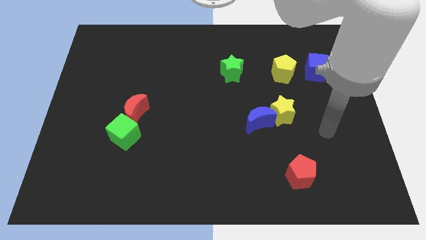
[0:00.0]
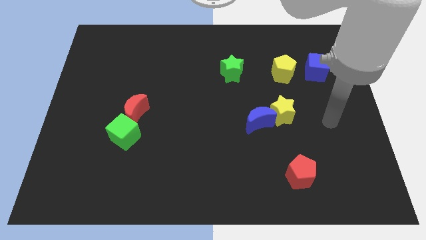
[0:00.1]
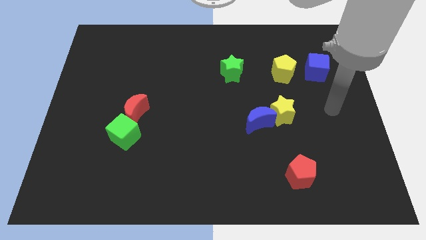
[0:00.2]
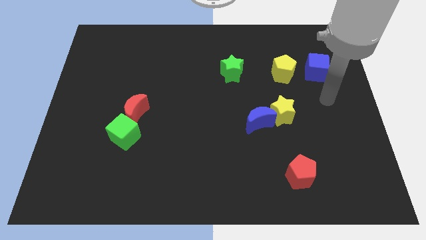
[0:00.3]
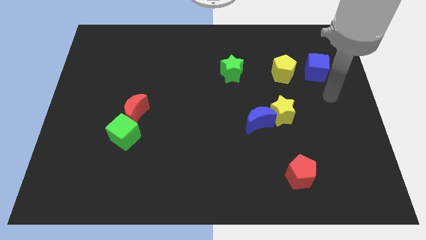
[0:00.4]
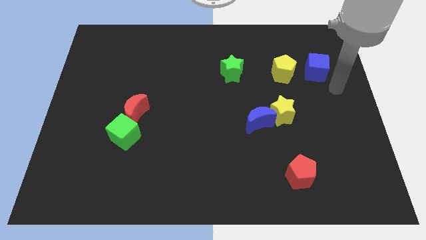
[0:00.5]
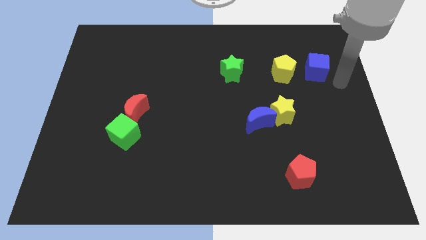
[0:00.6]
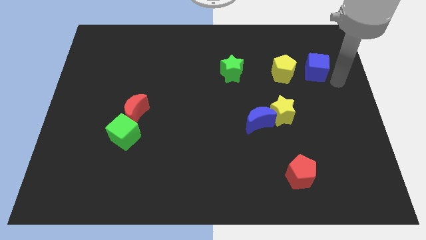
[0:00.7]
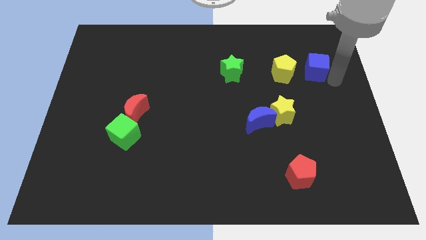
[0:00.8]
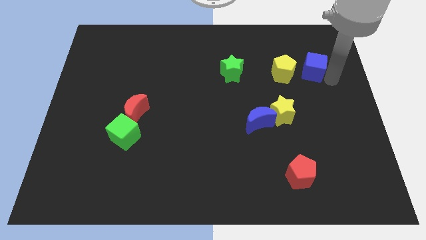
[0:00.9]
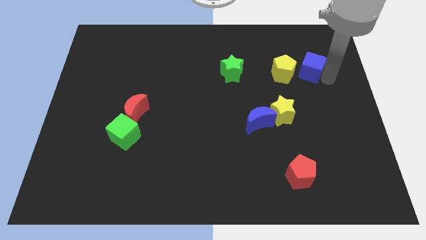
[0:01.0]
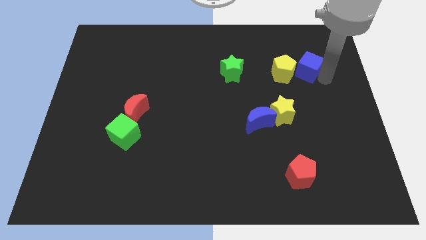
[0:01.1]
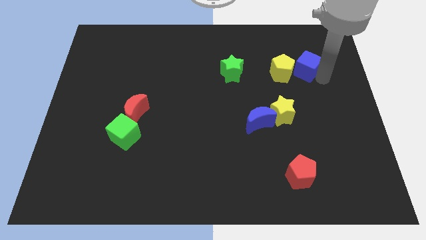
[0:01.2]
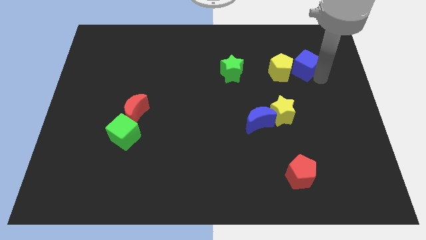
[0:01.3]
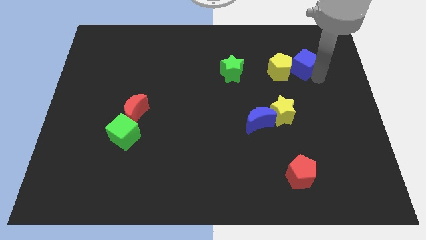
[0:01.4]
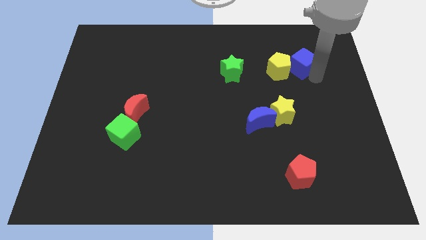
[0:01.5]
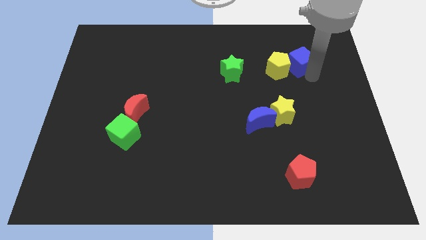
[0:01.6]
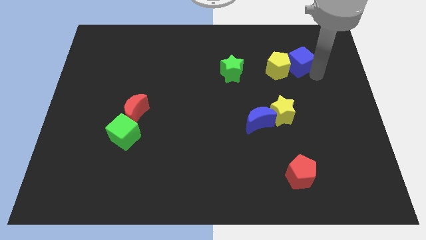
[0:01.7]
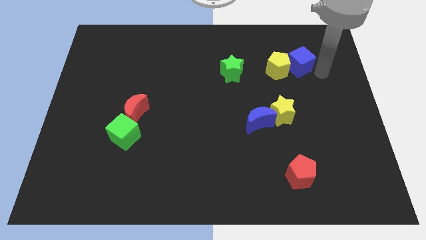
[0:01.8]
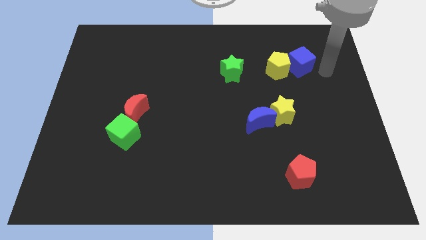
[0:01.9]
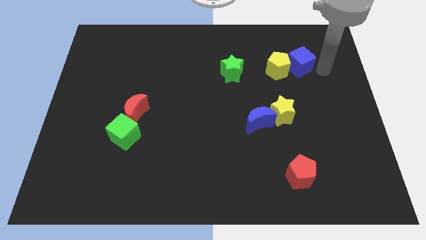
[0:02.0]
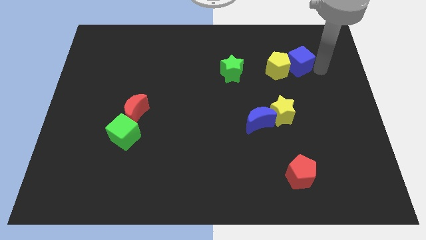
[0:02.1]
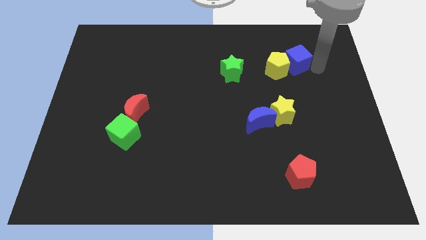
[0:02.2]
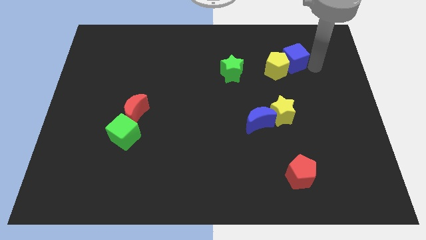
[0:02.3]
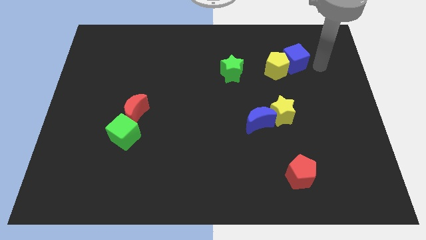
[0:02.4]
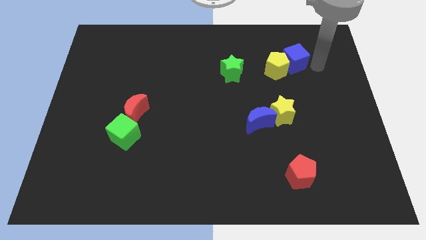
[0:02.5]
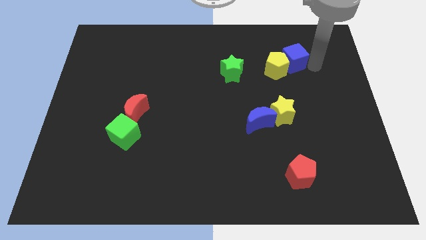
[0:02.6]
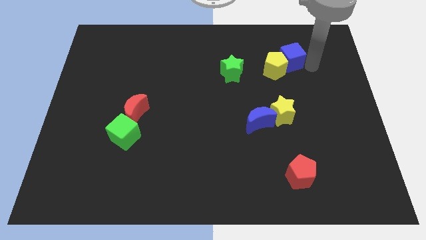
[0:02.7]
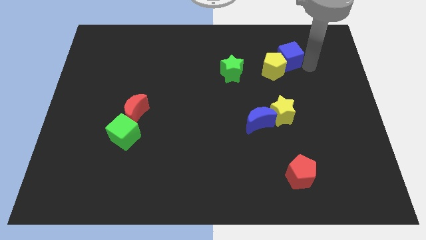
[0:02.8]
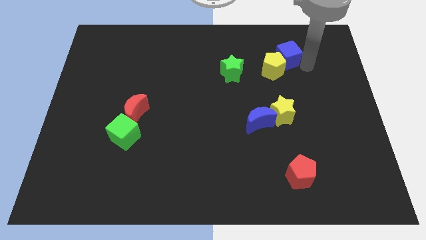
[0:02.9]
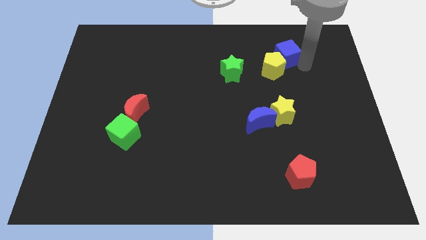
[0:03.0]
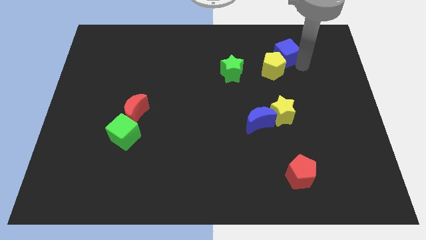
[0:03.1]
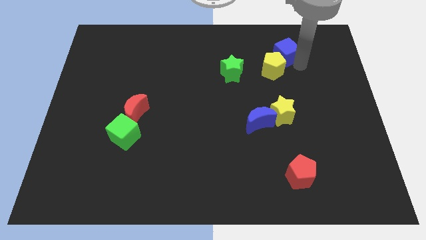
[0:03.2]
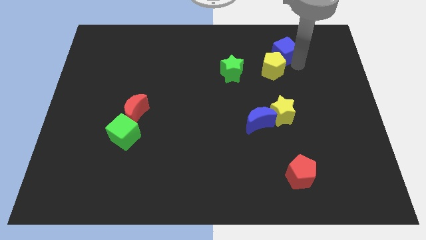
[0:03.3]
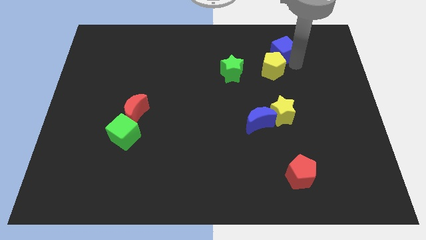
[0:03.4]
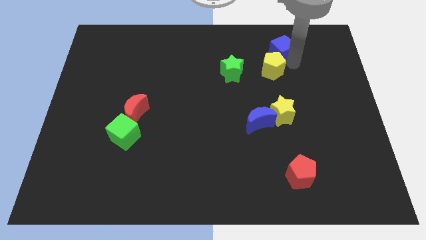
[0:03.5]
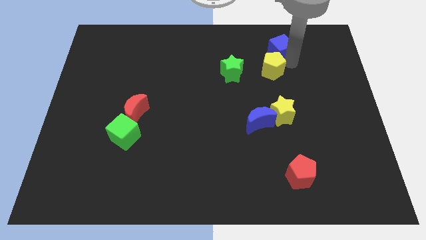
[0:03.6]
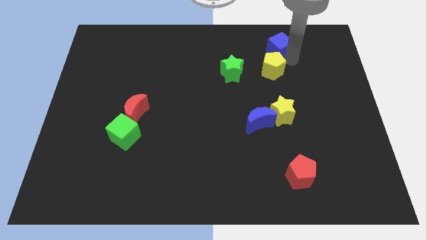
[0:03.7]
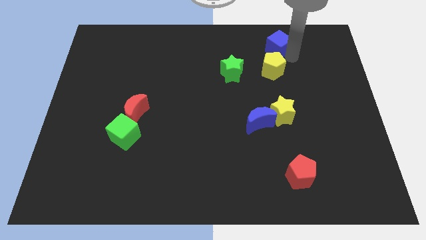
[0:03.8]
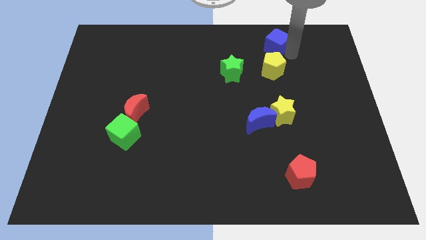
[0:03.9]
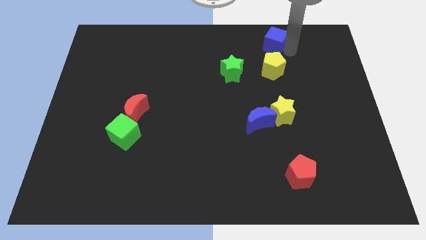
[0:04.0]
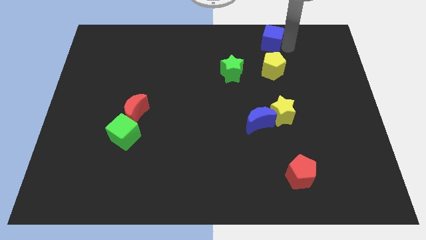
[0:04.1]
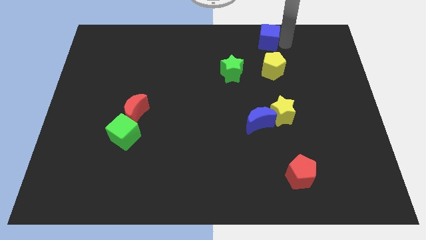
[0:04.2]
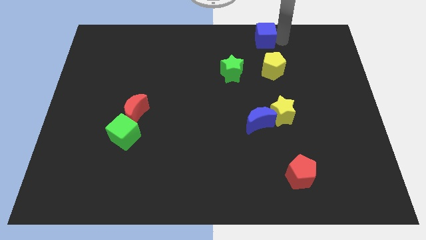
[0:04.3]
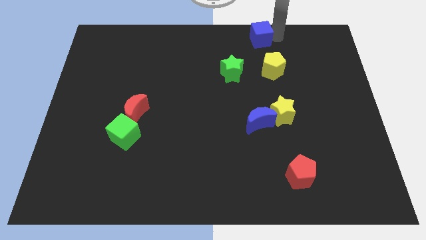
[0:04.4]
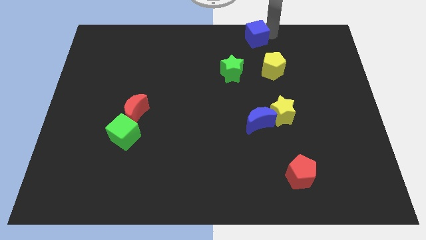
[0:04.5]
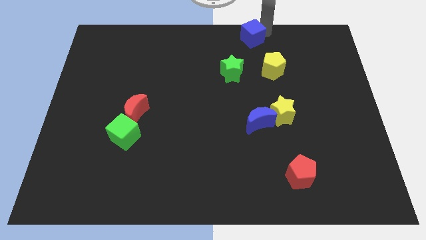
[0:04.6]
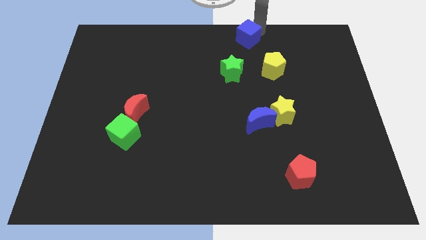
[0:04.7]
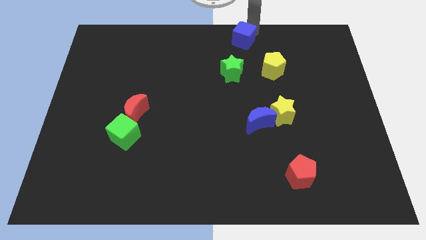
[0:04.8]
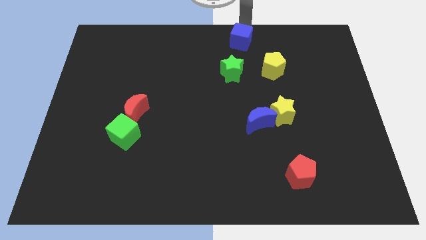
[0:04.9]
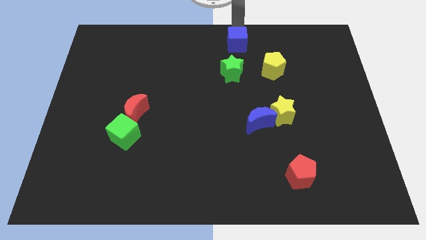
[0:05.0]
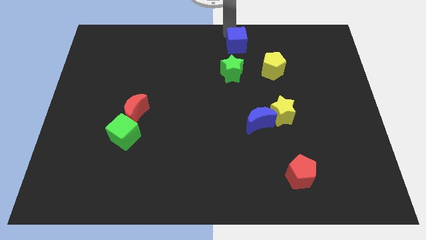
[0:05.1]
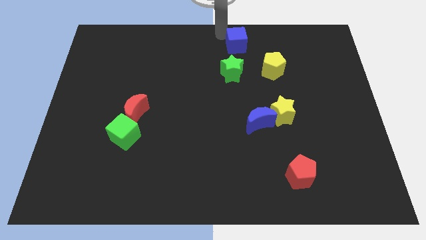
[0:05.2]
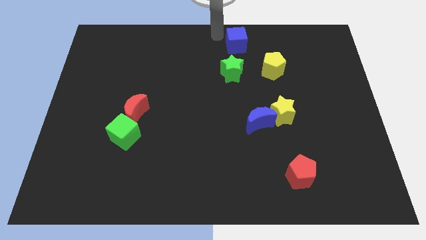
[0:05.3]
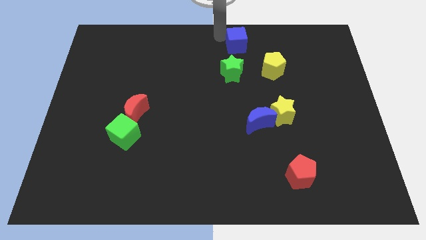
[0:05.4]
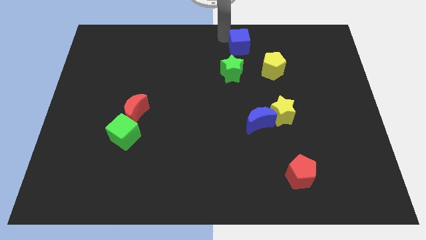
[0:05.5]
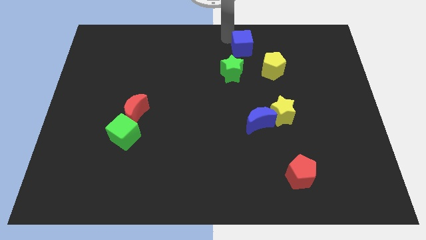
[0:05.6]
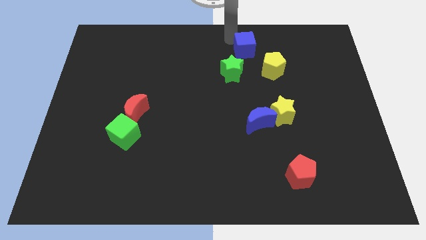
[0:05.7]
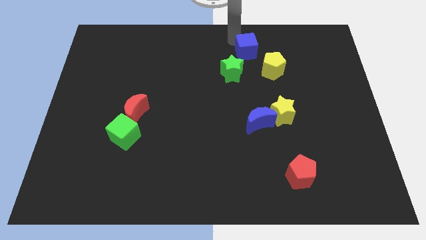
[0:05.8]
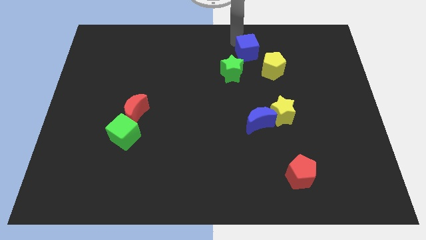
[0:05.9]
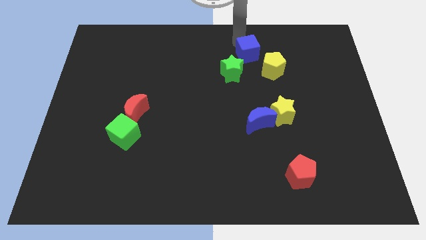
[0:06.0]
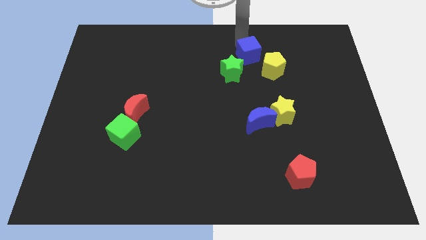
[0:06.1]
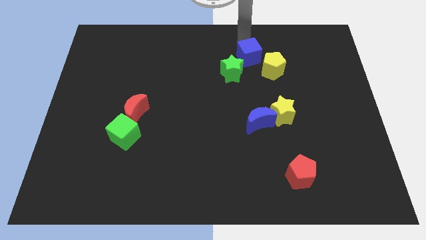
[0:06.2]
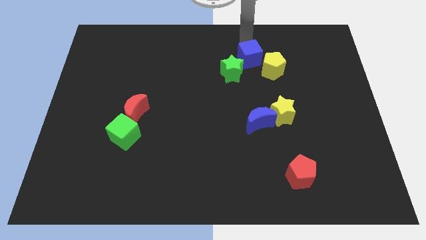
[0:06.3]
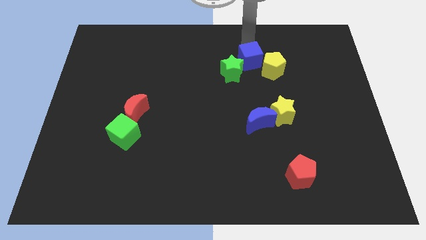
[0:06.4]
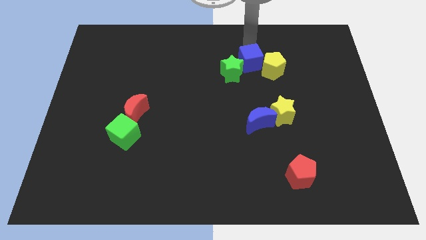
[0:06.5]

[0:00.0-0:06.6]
push the blue cube to the green star

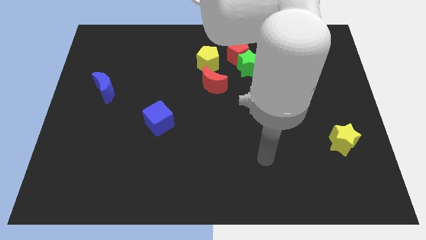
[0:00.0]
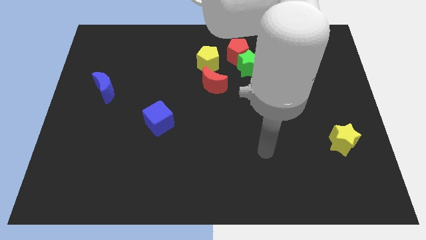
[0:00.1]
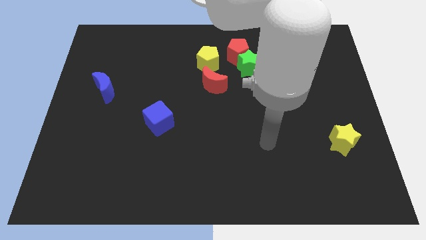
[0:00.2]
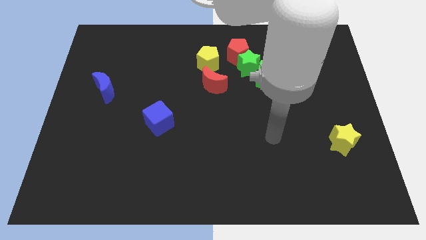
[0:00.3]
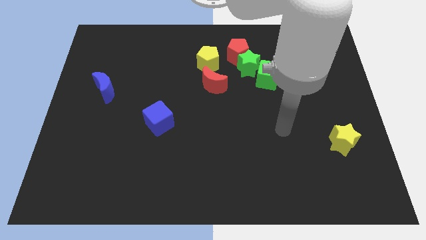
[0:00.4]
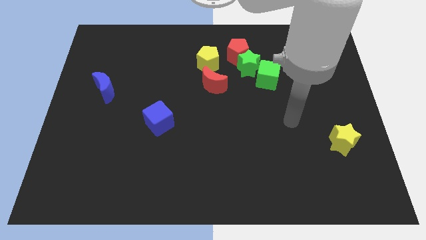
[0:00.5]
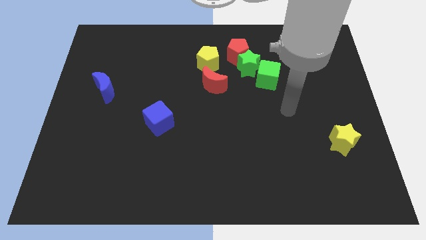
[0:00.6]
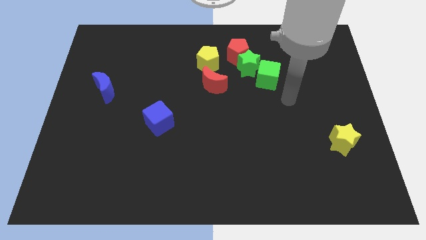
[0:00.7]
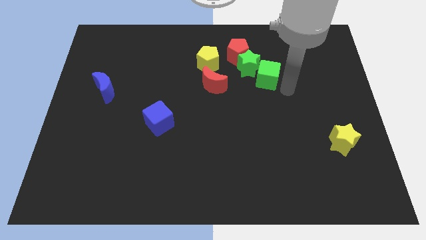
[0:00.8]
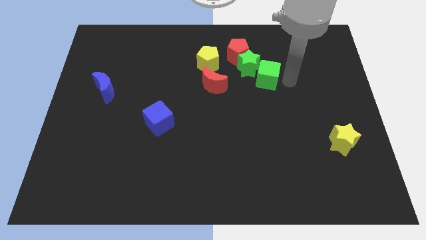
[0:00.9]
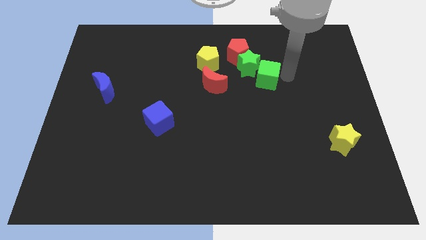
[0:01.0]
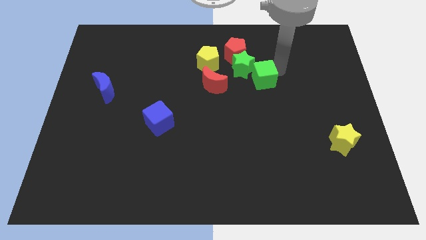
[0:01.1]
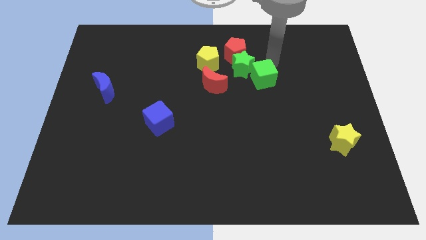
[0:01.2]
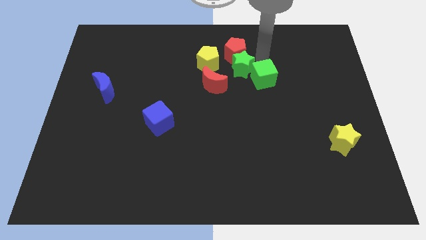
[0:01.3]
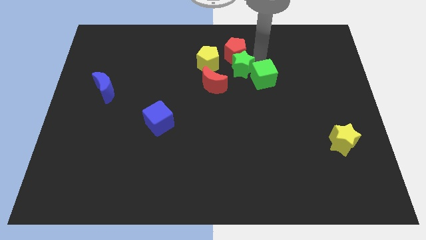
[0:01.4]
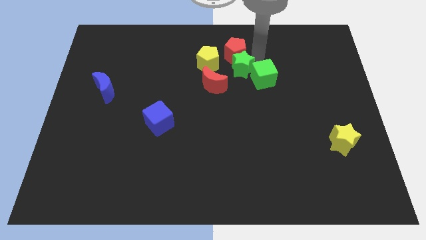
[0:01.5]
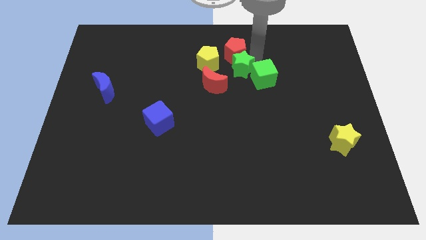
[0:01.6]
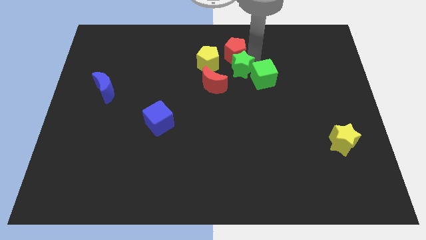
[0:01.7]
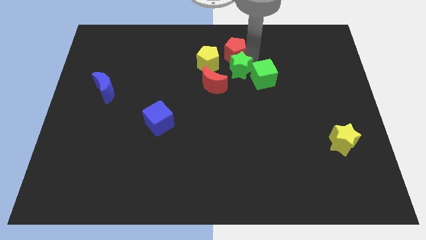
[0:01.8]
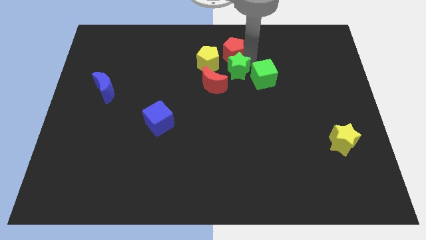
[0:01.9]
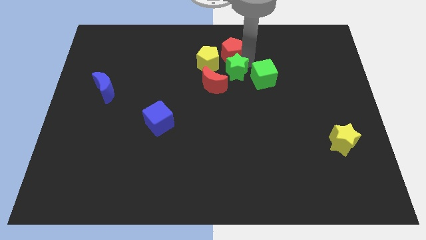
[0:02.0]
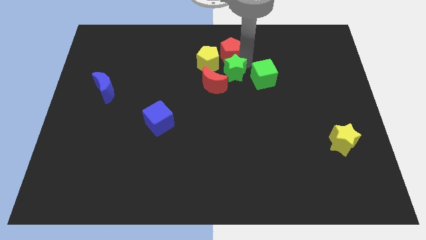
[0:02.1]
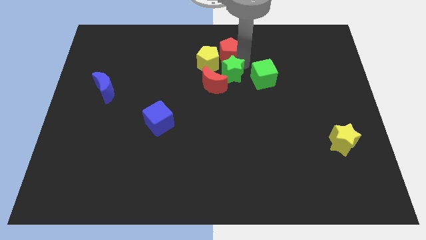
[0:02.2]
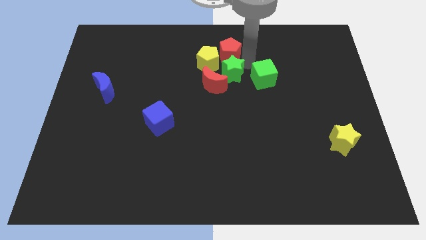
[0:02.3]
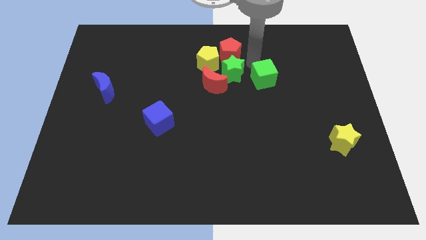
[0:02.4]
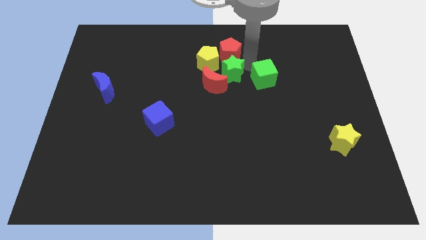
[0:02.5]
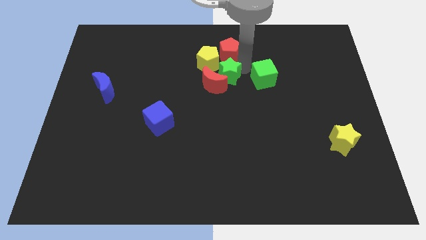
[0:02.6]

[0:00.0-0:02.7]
put the green star close to the red moon
